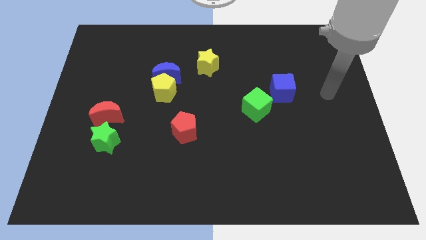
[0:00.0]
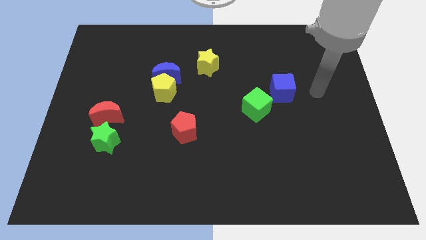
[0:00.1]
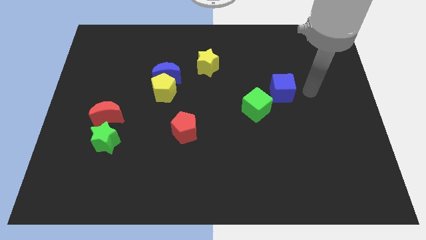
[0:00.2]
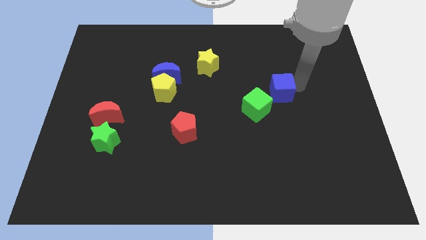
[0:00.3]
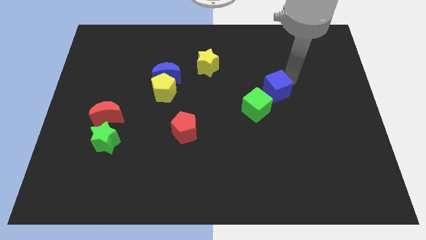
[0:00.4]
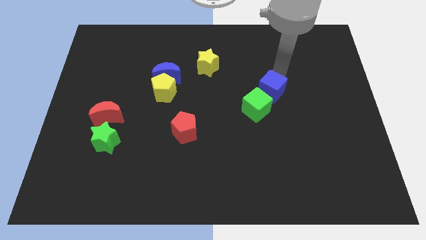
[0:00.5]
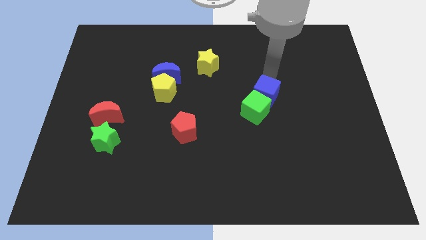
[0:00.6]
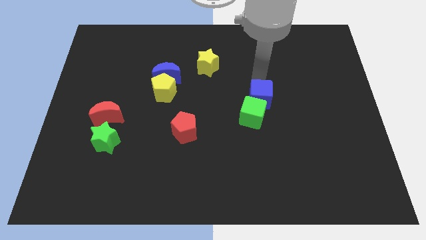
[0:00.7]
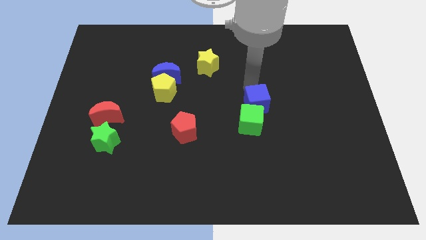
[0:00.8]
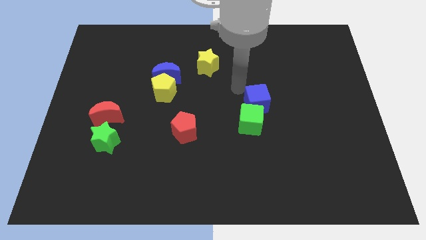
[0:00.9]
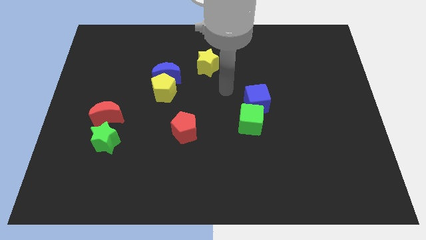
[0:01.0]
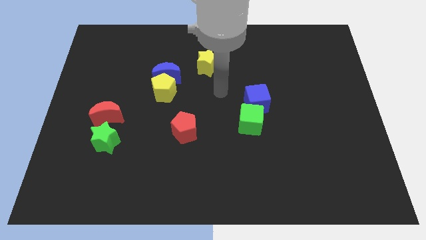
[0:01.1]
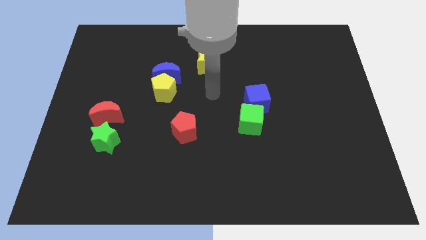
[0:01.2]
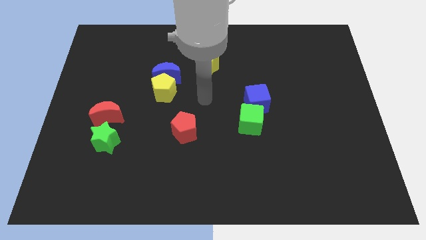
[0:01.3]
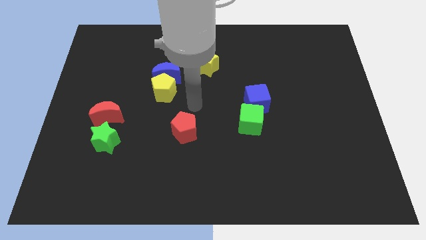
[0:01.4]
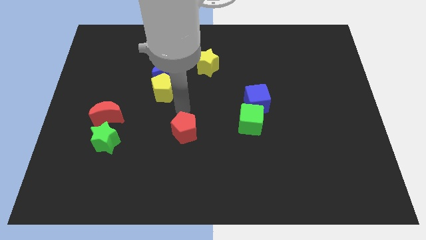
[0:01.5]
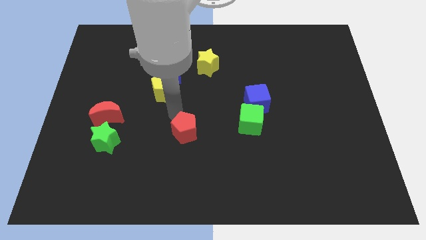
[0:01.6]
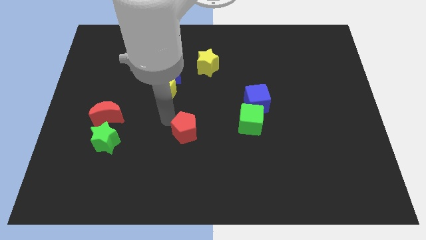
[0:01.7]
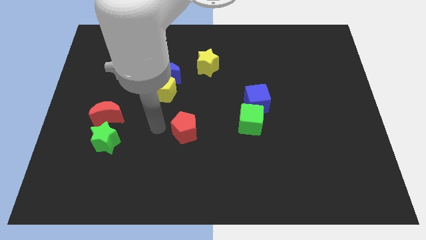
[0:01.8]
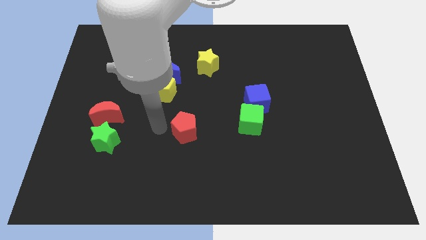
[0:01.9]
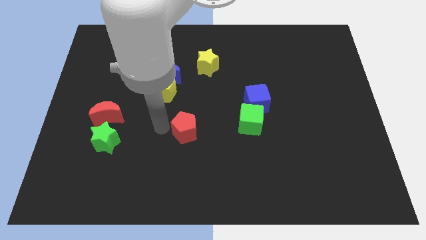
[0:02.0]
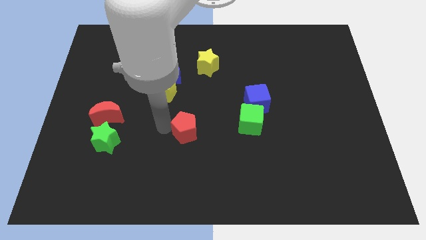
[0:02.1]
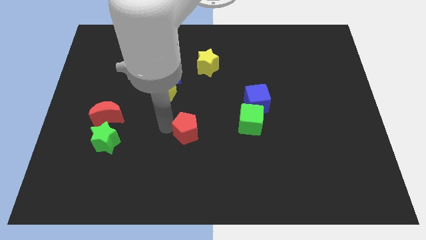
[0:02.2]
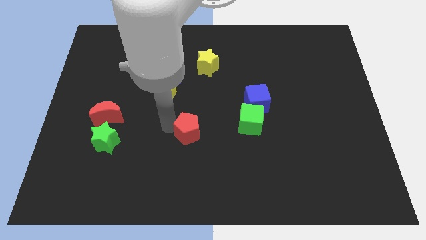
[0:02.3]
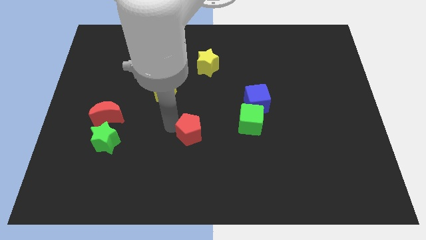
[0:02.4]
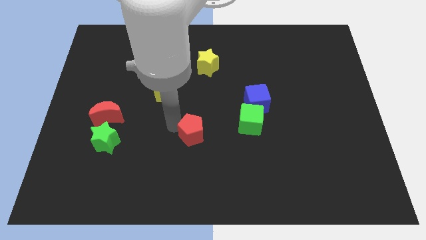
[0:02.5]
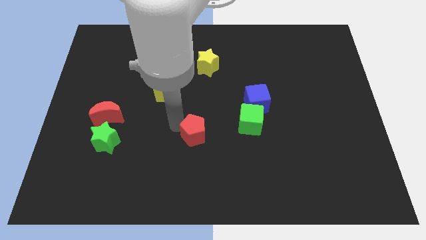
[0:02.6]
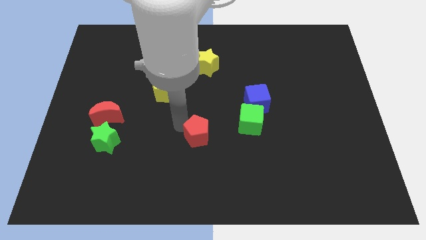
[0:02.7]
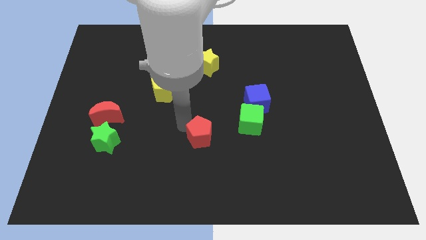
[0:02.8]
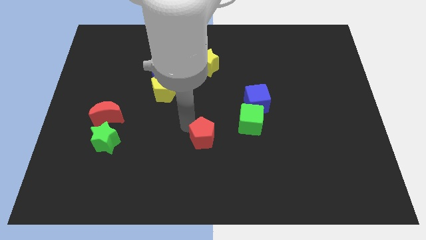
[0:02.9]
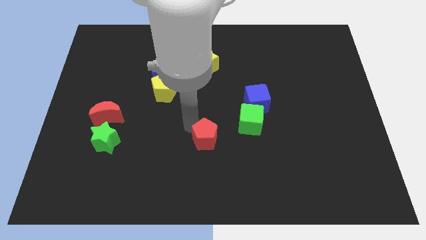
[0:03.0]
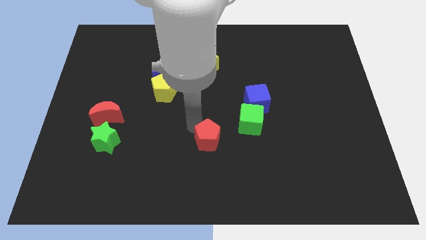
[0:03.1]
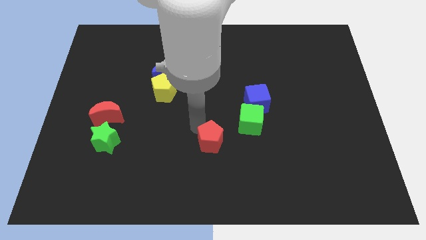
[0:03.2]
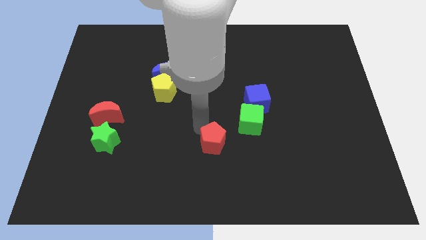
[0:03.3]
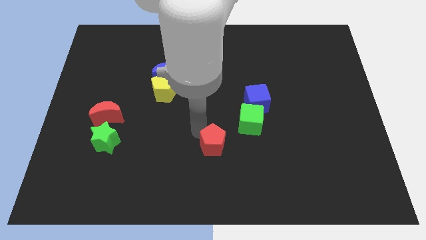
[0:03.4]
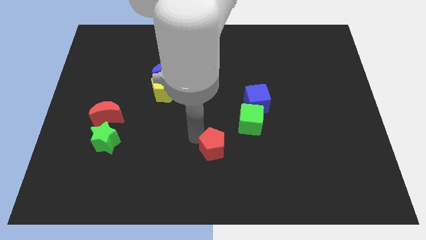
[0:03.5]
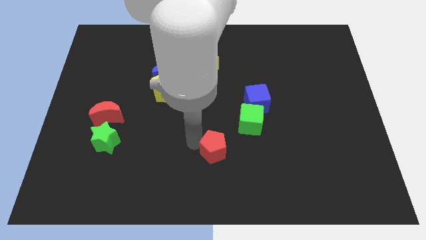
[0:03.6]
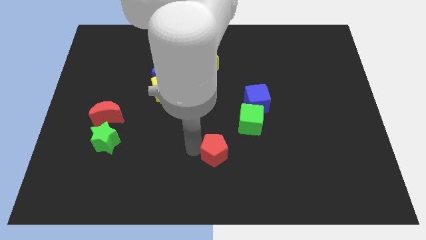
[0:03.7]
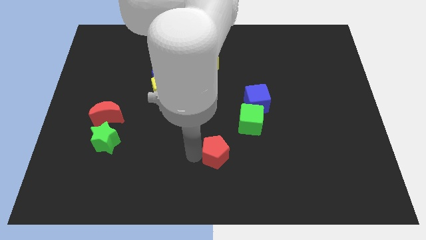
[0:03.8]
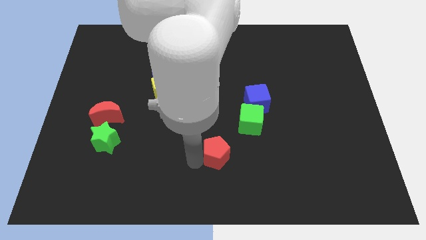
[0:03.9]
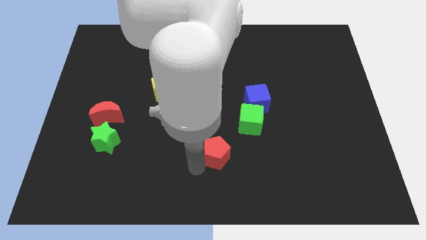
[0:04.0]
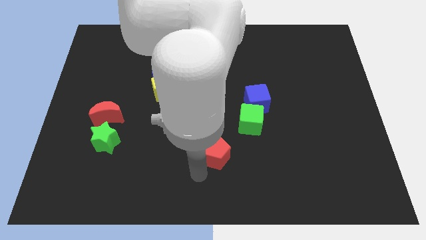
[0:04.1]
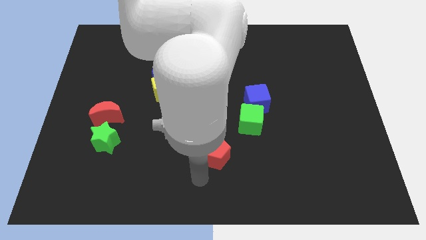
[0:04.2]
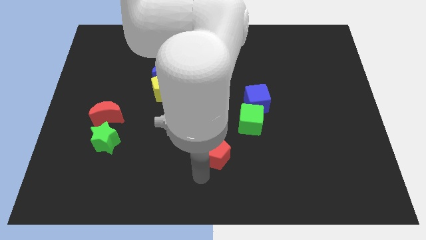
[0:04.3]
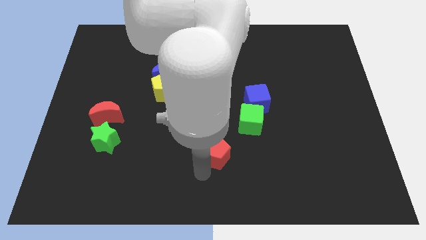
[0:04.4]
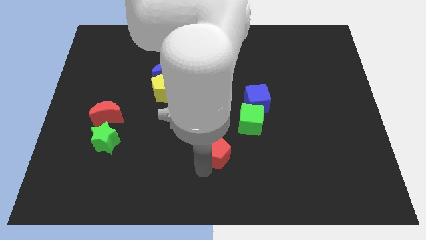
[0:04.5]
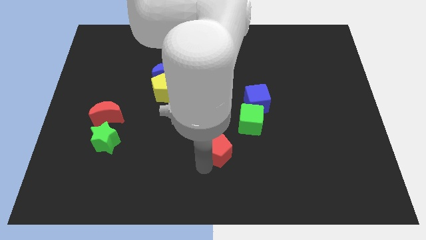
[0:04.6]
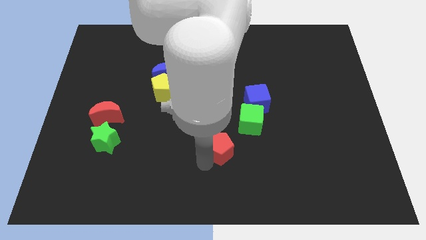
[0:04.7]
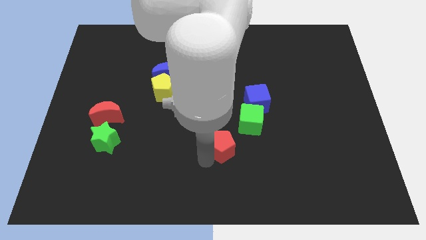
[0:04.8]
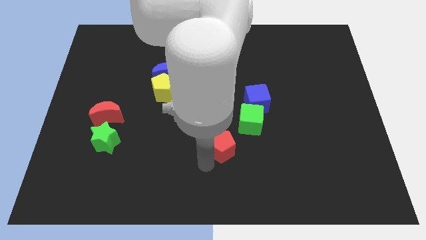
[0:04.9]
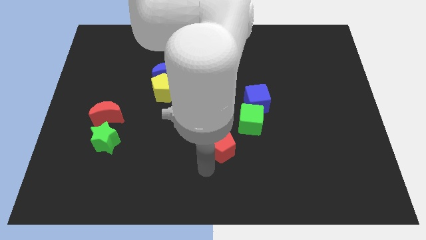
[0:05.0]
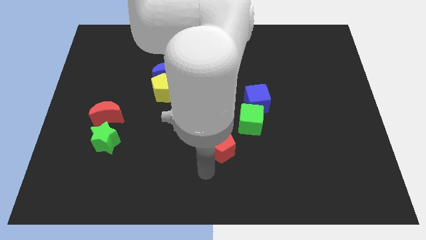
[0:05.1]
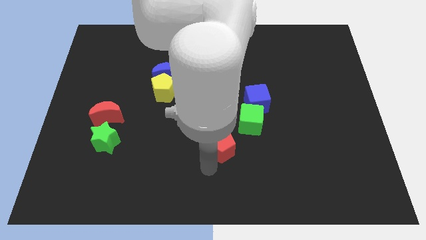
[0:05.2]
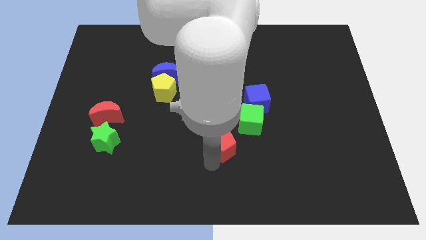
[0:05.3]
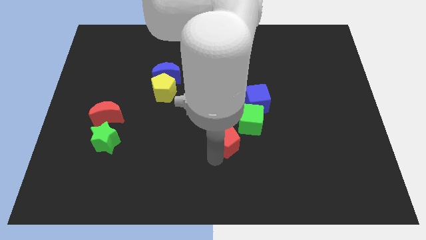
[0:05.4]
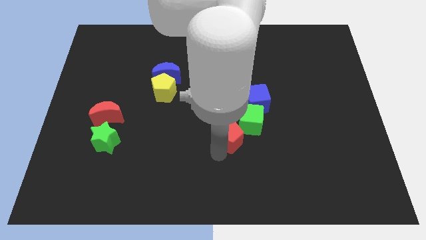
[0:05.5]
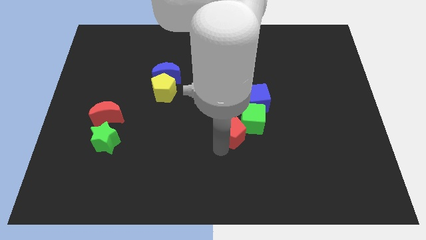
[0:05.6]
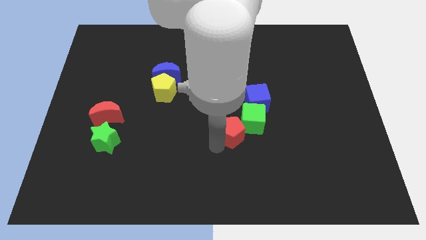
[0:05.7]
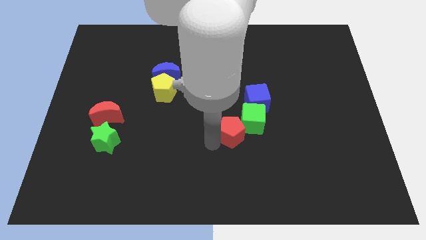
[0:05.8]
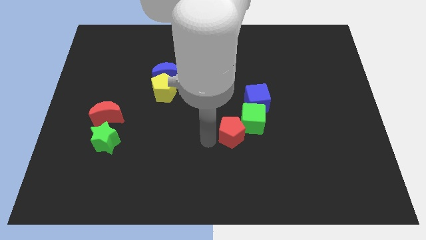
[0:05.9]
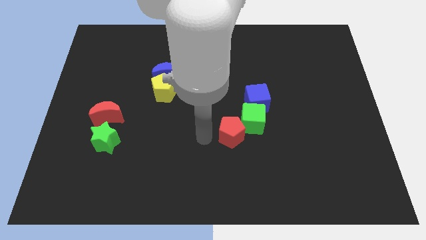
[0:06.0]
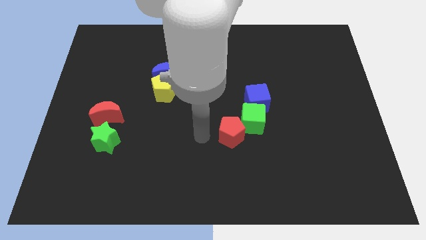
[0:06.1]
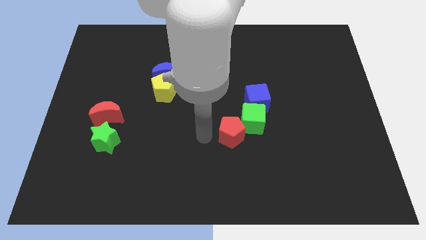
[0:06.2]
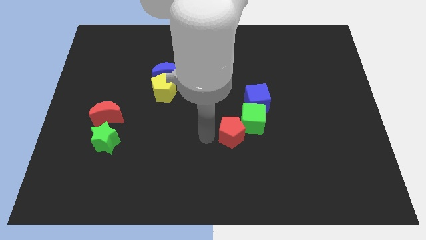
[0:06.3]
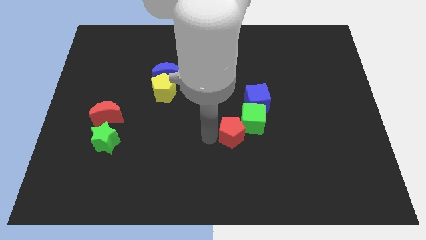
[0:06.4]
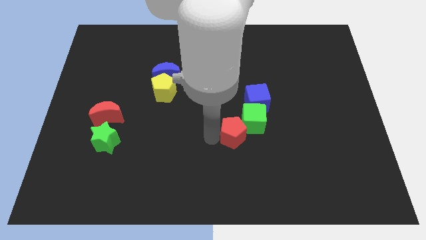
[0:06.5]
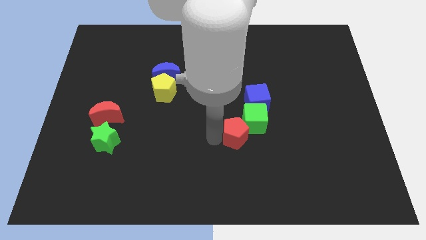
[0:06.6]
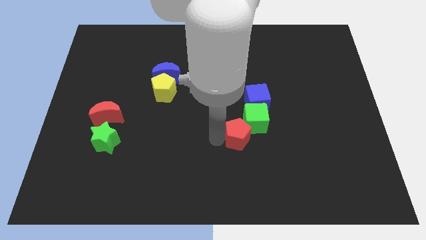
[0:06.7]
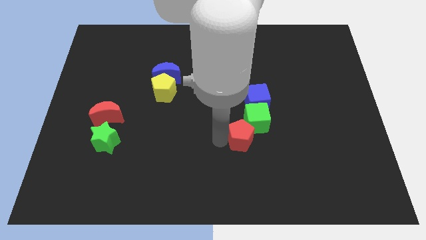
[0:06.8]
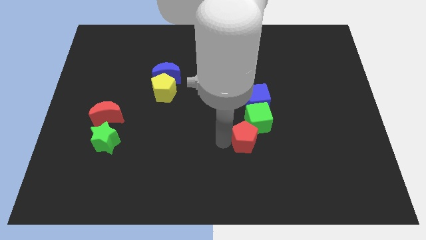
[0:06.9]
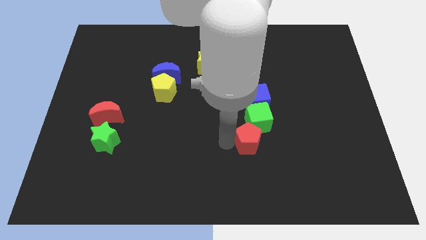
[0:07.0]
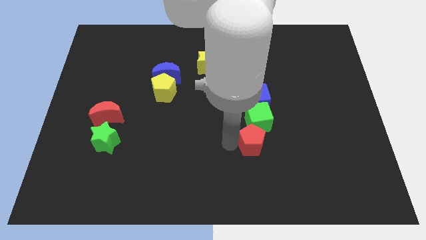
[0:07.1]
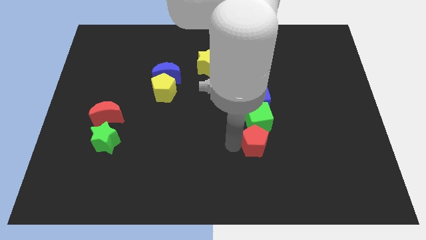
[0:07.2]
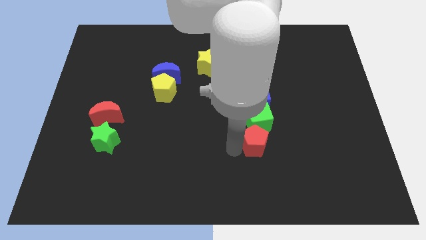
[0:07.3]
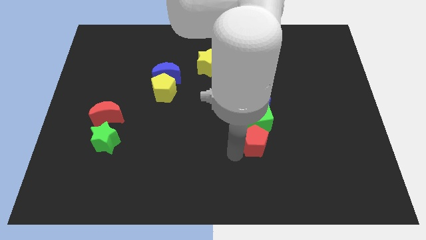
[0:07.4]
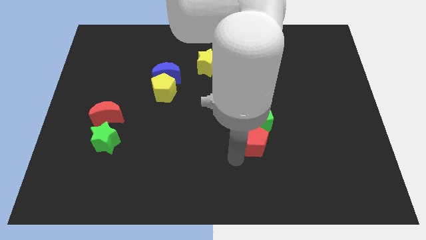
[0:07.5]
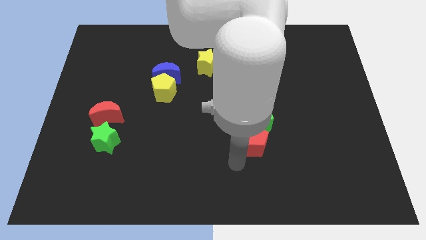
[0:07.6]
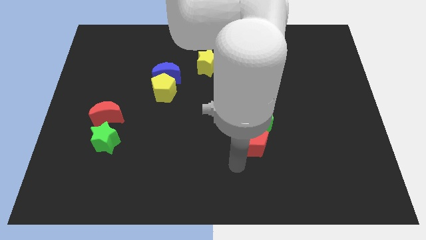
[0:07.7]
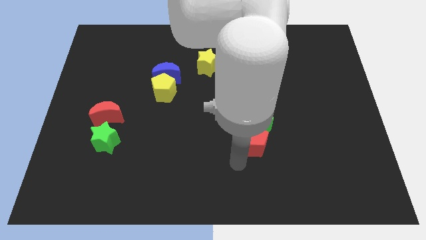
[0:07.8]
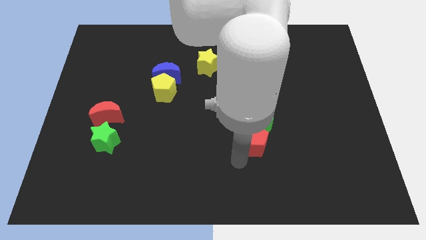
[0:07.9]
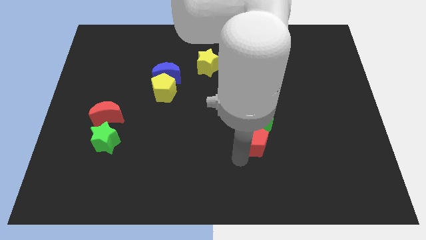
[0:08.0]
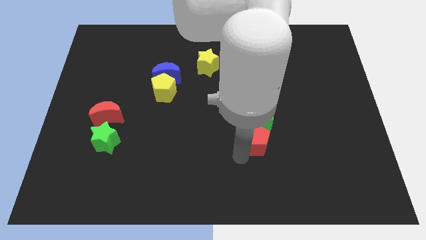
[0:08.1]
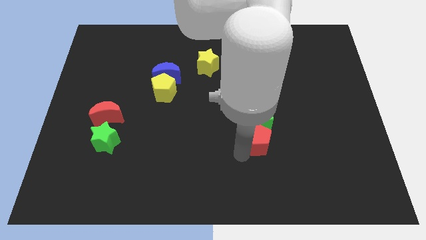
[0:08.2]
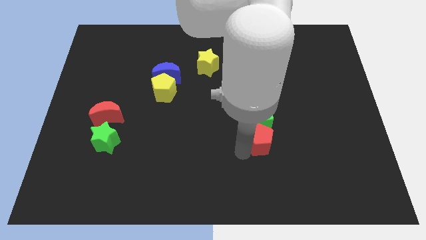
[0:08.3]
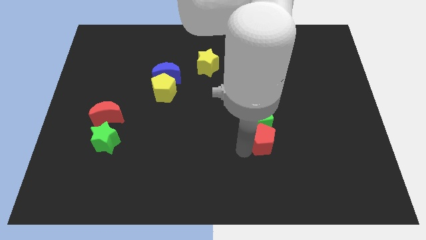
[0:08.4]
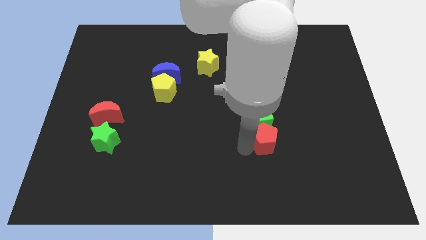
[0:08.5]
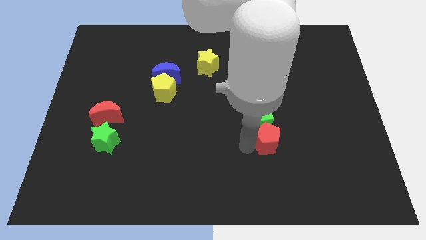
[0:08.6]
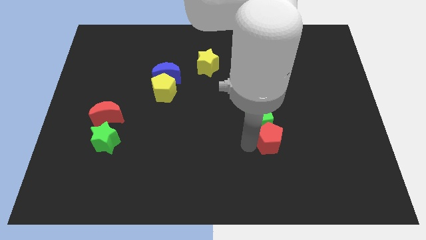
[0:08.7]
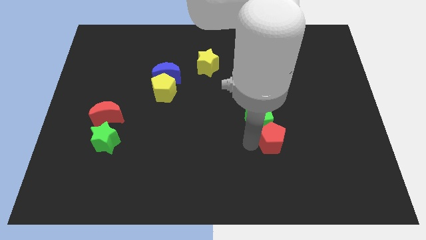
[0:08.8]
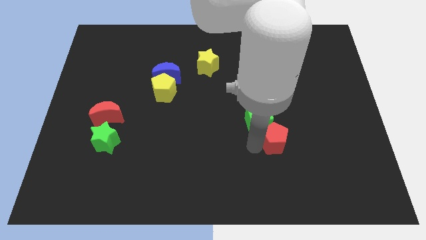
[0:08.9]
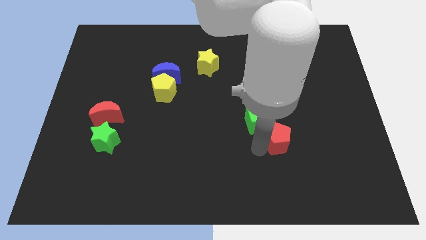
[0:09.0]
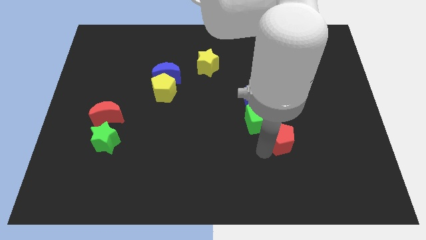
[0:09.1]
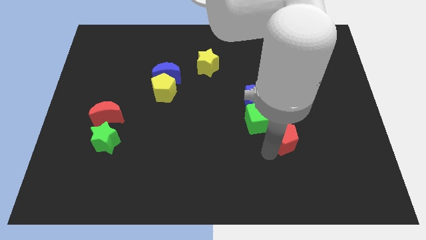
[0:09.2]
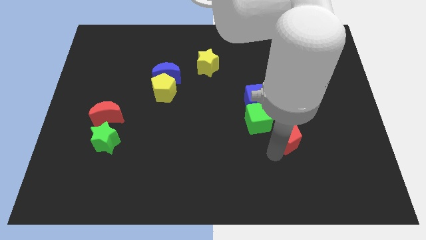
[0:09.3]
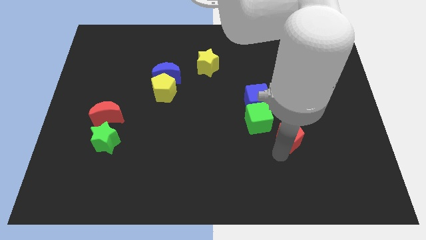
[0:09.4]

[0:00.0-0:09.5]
push the red pentagon to the right of the green cube
